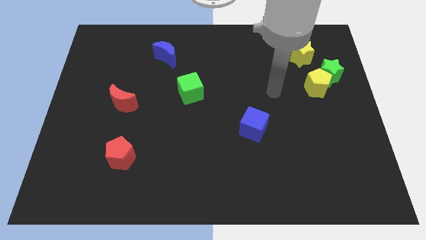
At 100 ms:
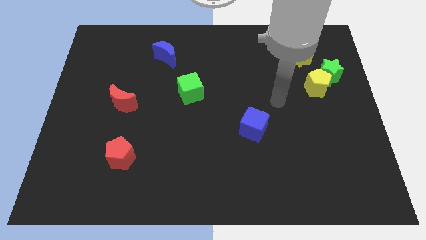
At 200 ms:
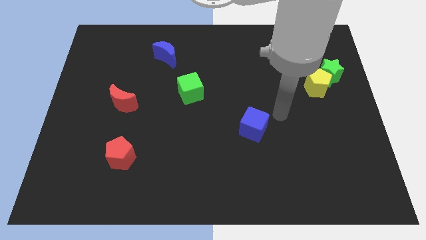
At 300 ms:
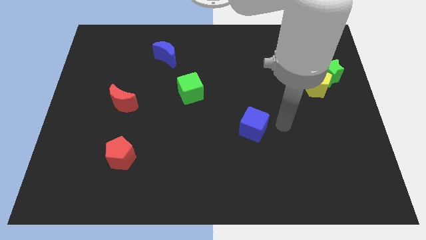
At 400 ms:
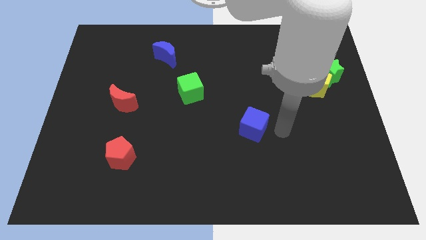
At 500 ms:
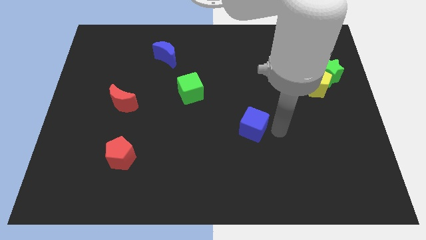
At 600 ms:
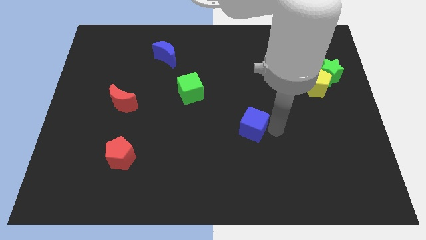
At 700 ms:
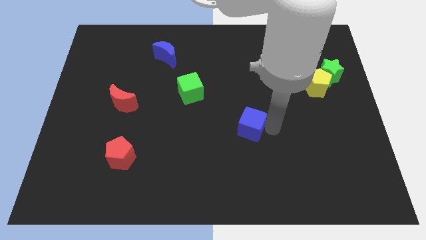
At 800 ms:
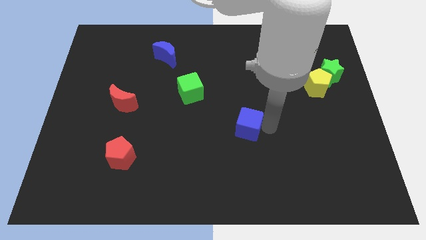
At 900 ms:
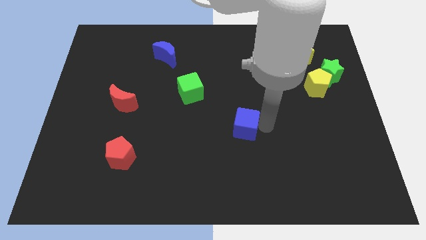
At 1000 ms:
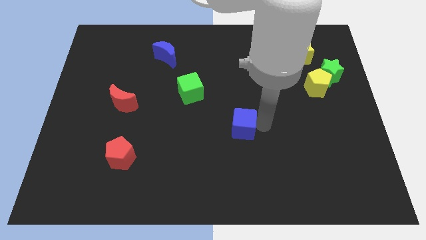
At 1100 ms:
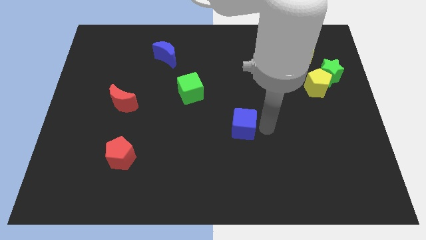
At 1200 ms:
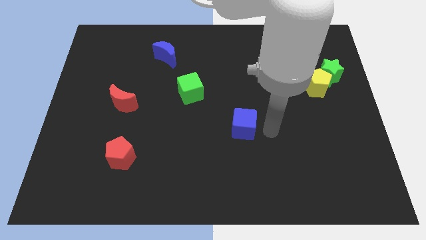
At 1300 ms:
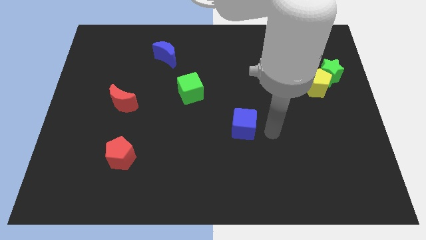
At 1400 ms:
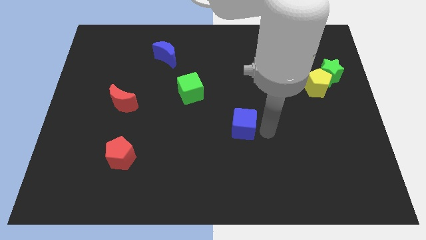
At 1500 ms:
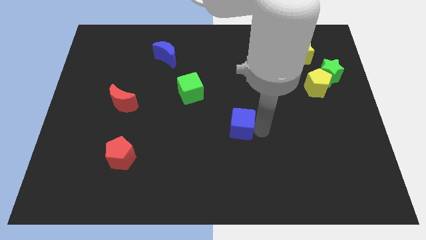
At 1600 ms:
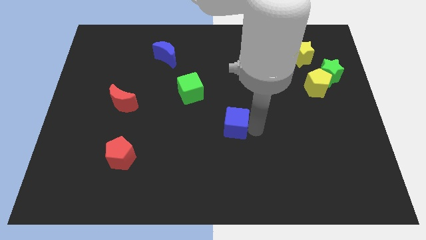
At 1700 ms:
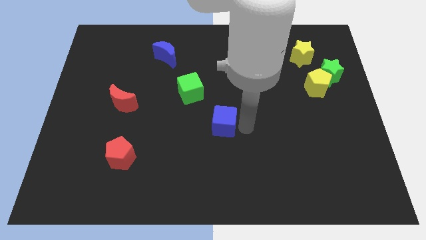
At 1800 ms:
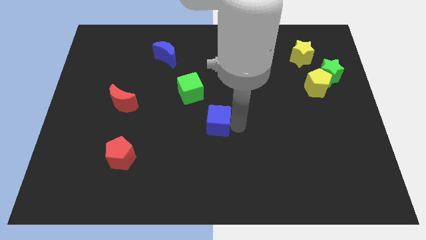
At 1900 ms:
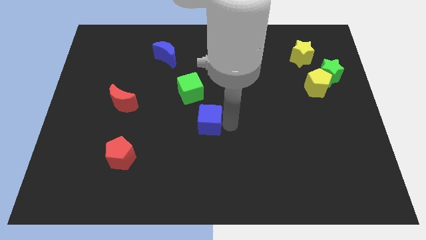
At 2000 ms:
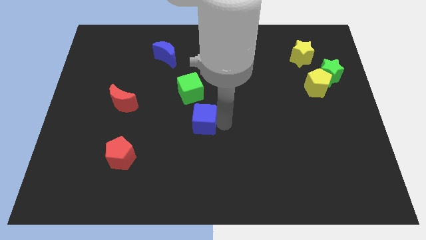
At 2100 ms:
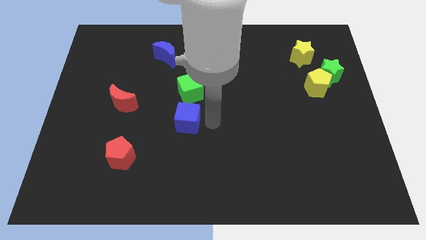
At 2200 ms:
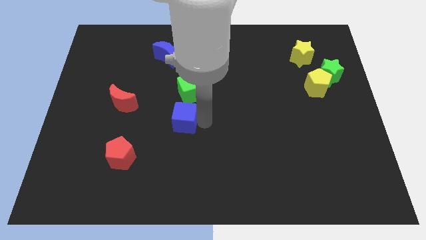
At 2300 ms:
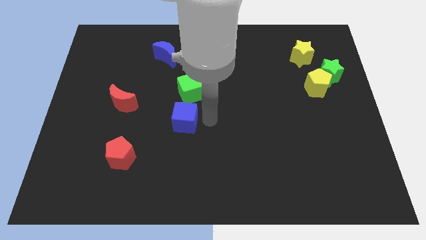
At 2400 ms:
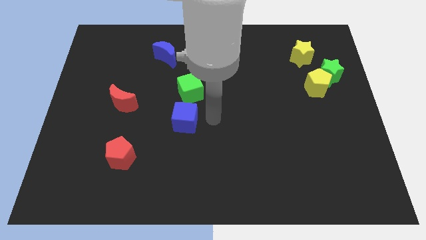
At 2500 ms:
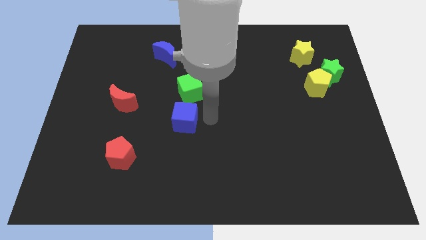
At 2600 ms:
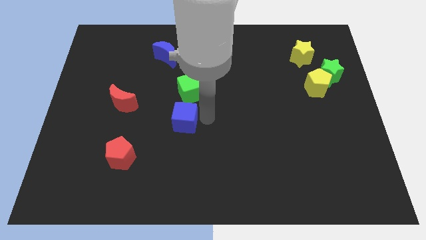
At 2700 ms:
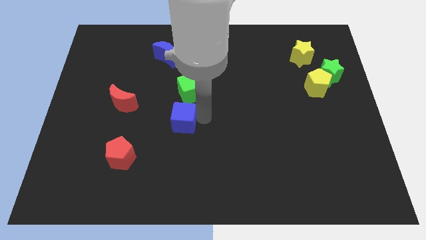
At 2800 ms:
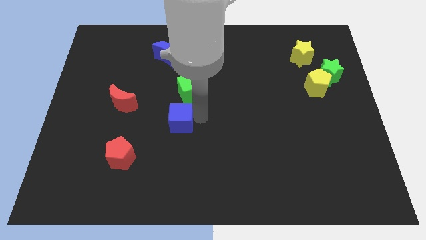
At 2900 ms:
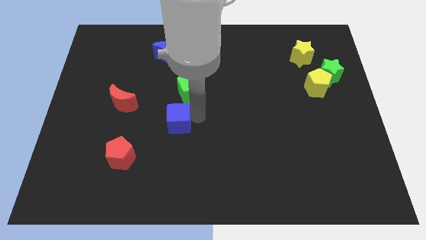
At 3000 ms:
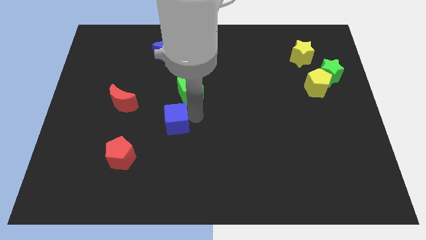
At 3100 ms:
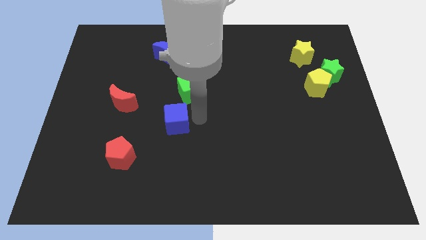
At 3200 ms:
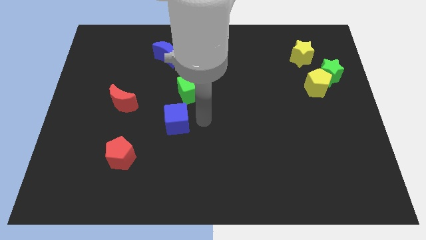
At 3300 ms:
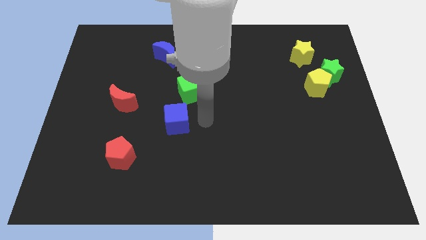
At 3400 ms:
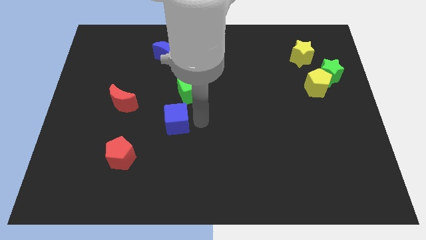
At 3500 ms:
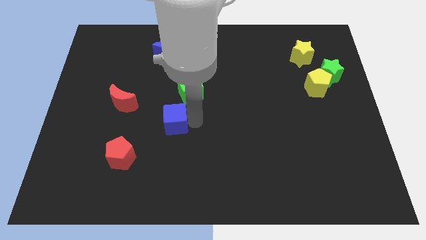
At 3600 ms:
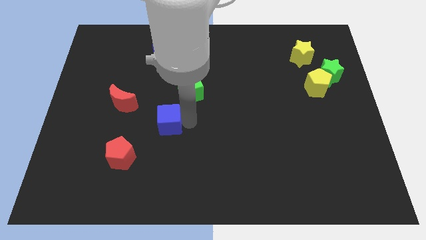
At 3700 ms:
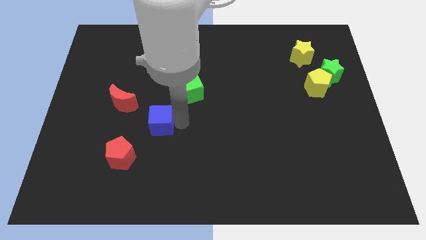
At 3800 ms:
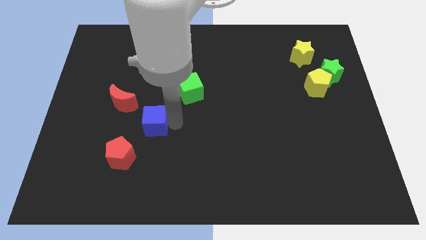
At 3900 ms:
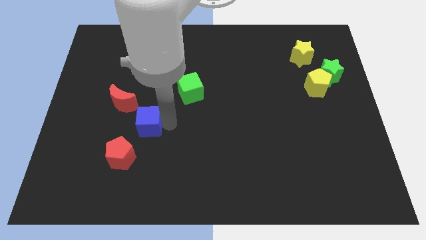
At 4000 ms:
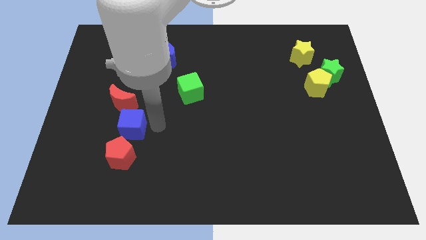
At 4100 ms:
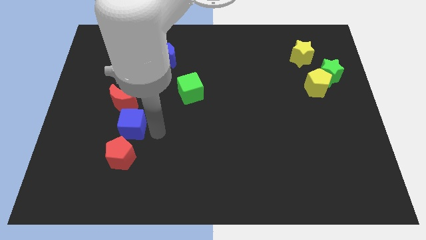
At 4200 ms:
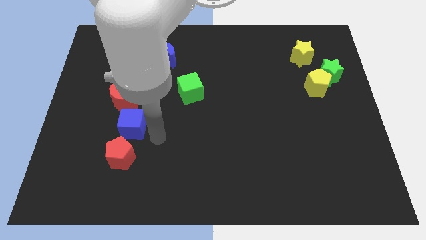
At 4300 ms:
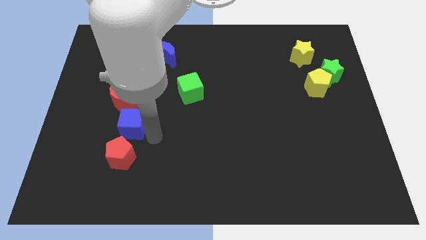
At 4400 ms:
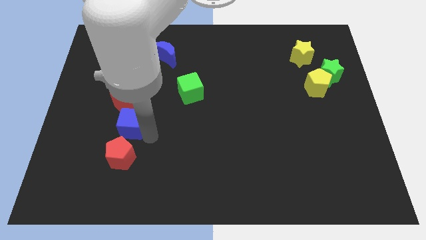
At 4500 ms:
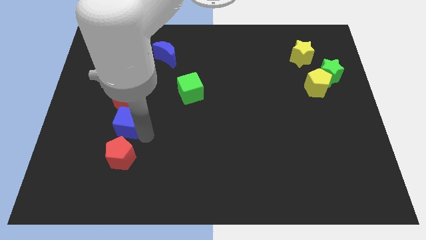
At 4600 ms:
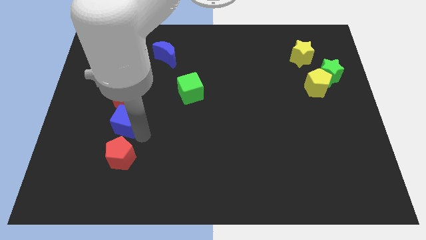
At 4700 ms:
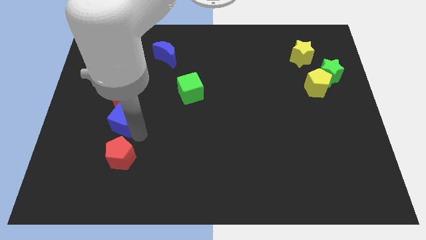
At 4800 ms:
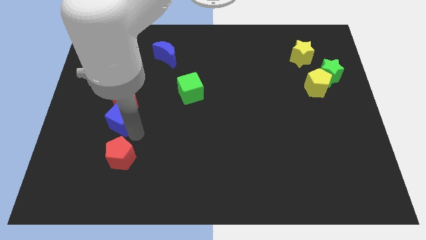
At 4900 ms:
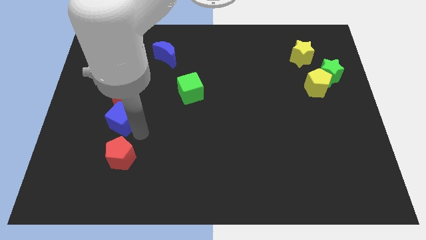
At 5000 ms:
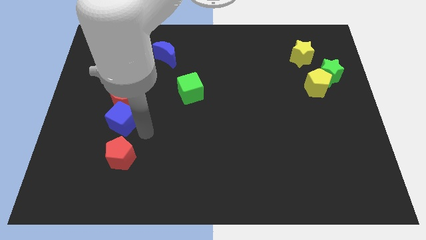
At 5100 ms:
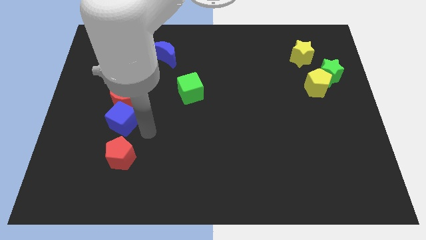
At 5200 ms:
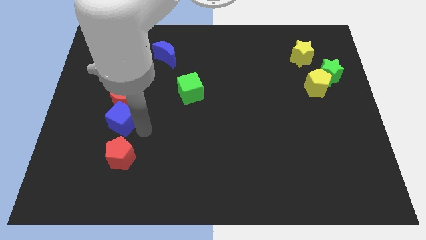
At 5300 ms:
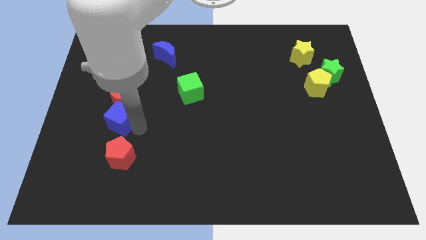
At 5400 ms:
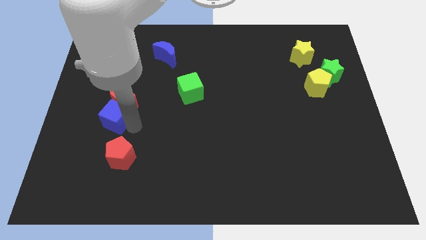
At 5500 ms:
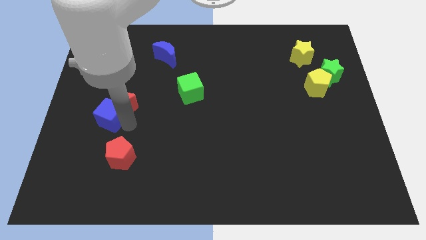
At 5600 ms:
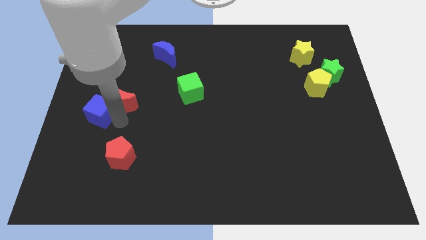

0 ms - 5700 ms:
slide the blue cube to the left side of the board
